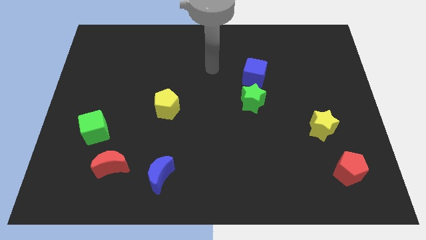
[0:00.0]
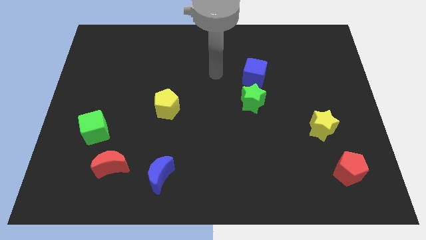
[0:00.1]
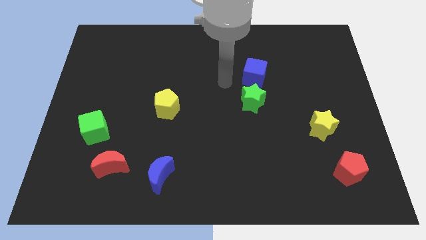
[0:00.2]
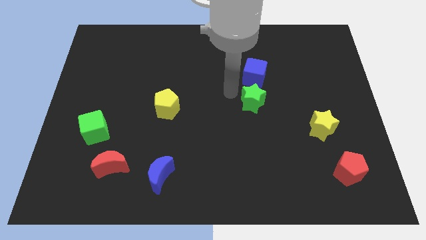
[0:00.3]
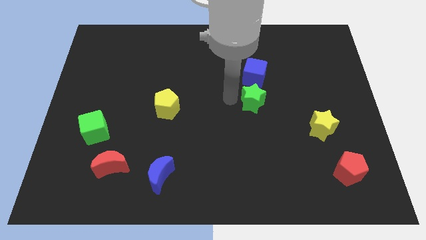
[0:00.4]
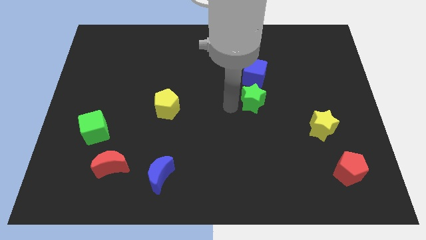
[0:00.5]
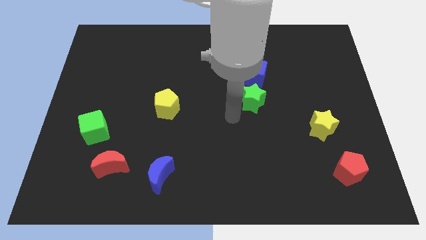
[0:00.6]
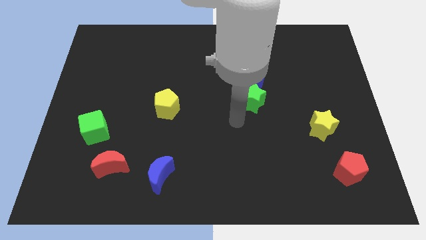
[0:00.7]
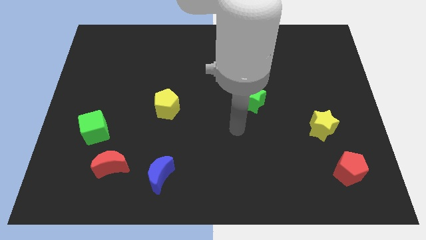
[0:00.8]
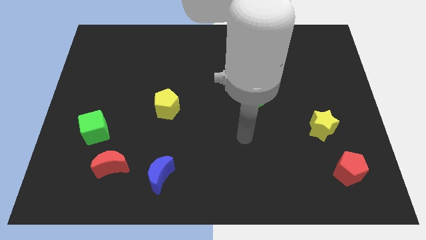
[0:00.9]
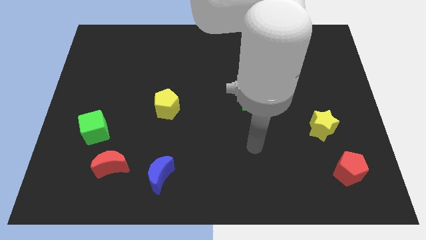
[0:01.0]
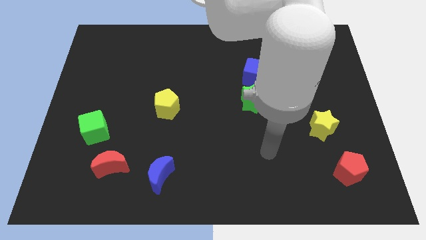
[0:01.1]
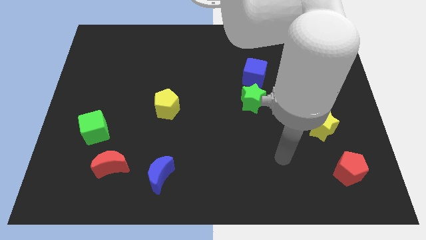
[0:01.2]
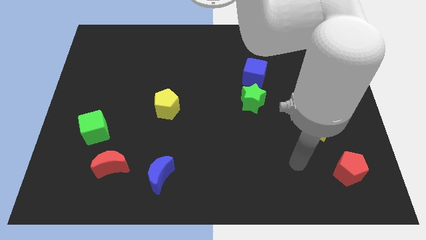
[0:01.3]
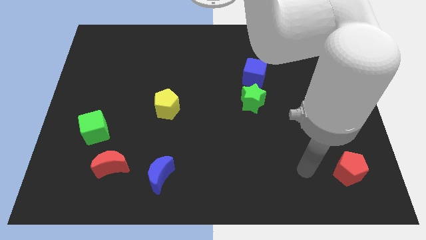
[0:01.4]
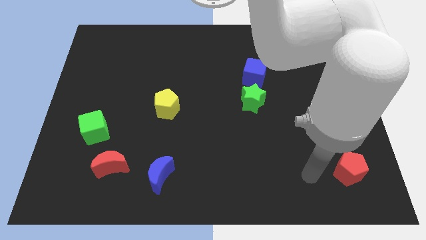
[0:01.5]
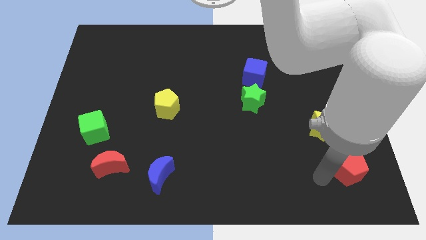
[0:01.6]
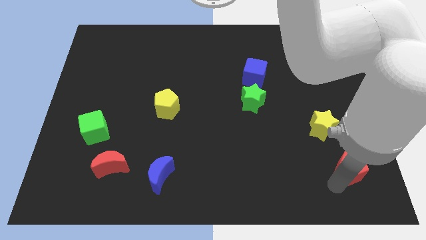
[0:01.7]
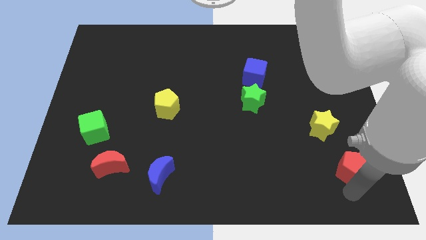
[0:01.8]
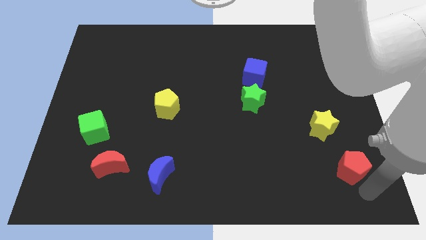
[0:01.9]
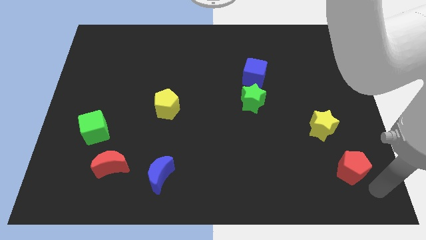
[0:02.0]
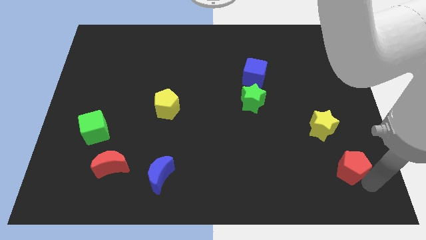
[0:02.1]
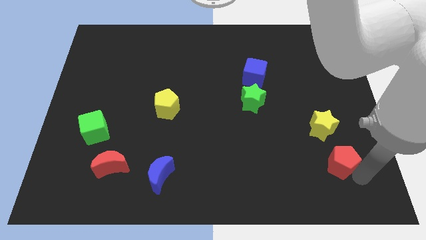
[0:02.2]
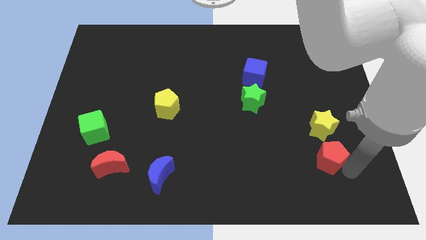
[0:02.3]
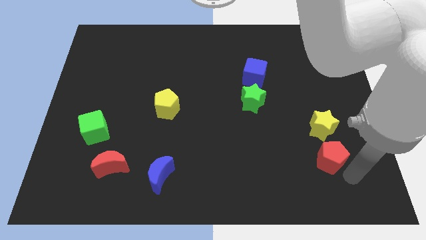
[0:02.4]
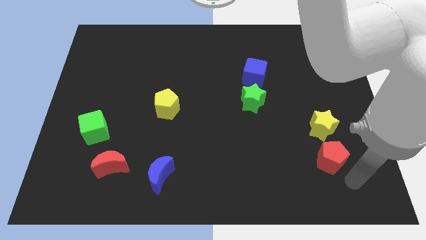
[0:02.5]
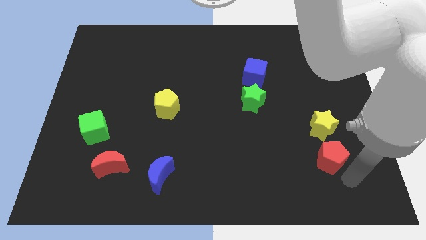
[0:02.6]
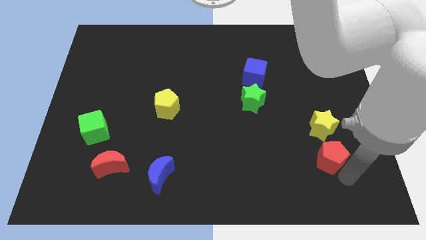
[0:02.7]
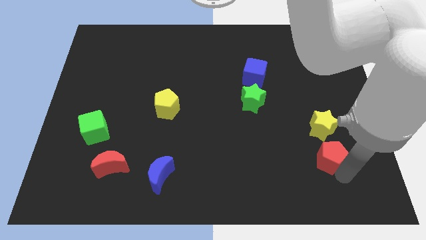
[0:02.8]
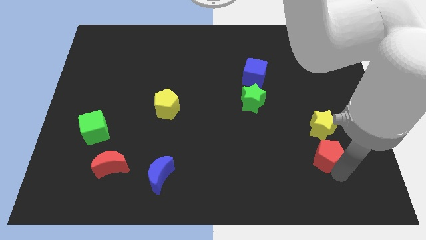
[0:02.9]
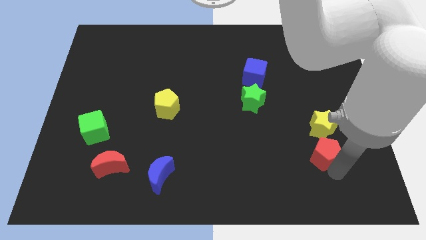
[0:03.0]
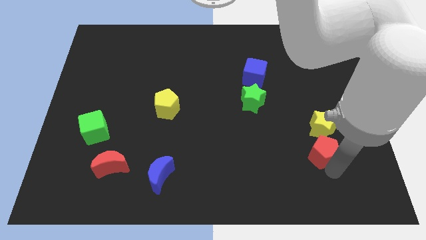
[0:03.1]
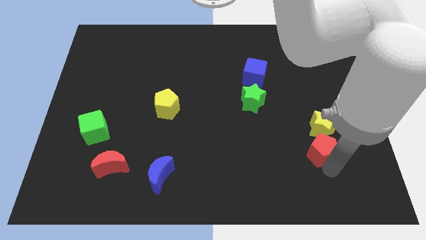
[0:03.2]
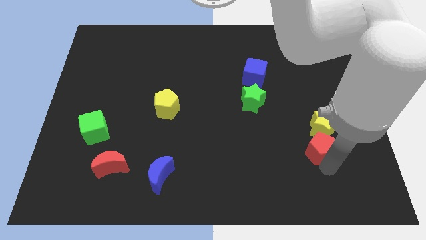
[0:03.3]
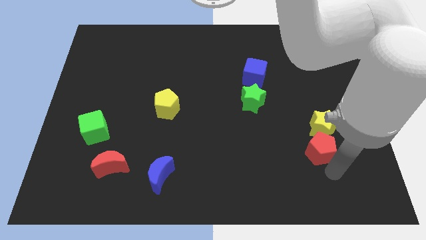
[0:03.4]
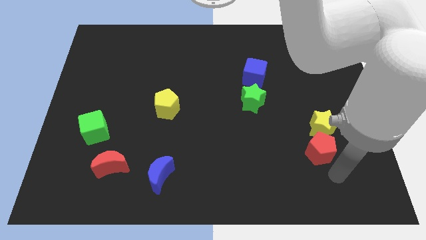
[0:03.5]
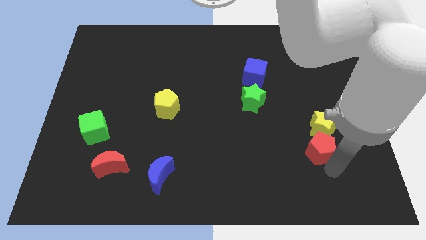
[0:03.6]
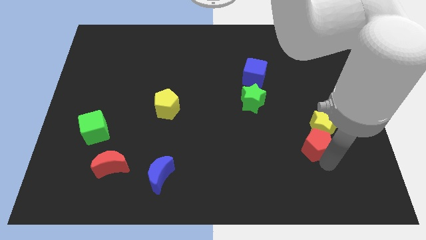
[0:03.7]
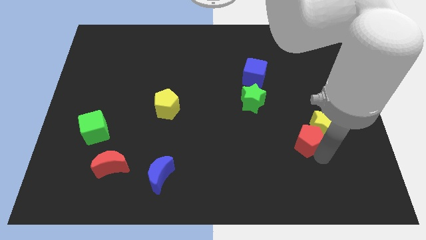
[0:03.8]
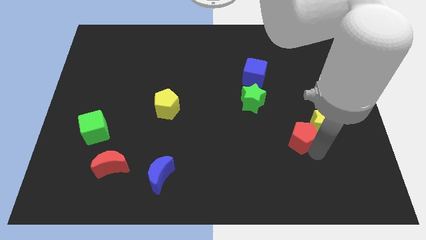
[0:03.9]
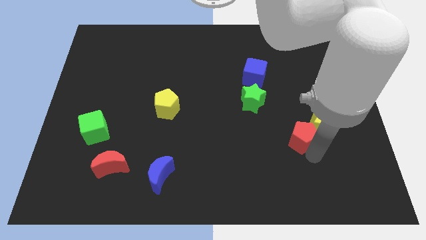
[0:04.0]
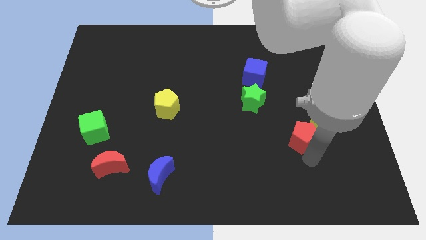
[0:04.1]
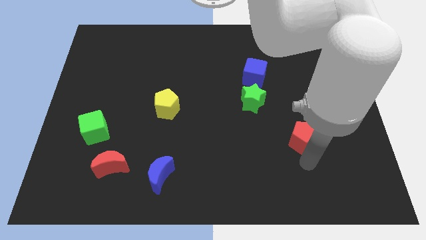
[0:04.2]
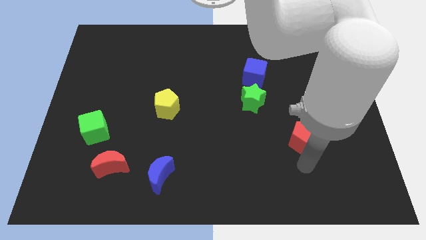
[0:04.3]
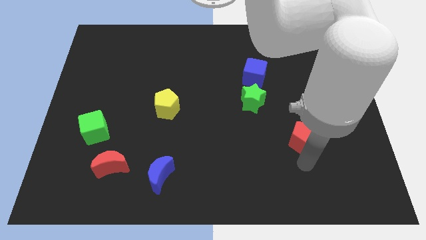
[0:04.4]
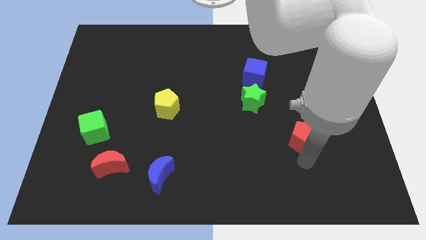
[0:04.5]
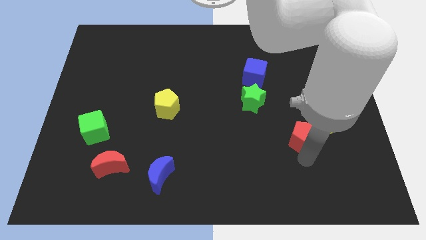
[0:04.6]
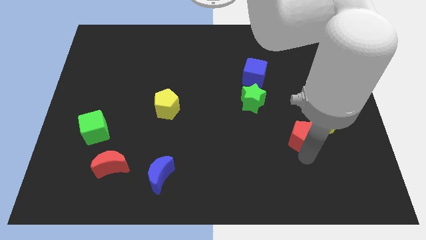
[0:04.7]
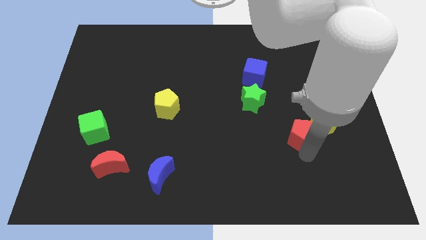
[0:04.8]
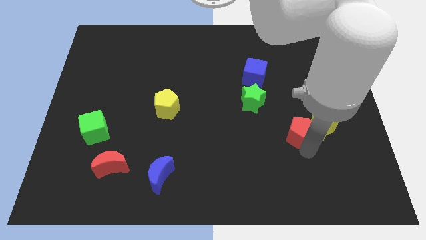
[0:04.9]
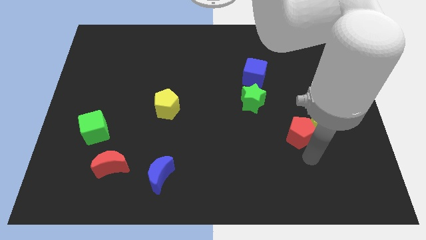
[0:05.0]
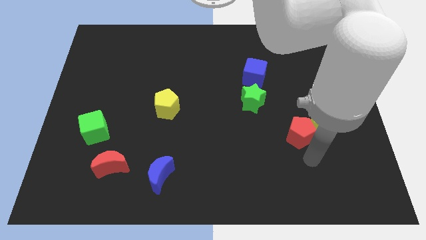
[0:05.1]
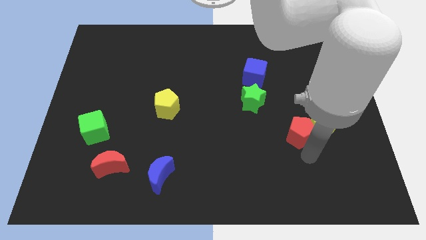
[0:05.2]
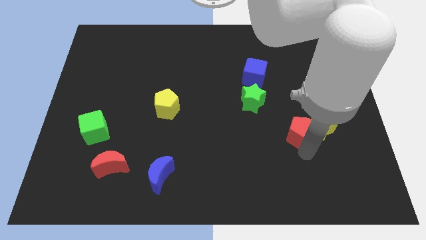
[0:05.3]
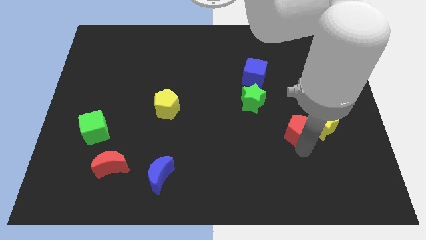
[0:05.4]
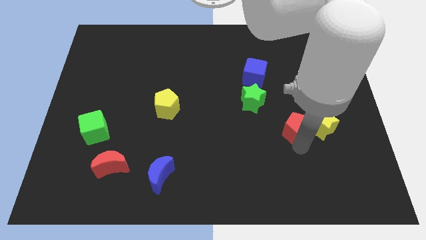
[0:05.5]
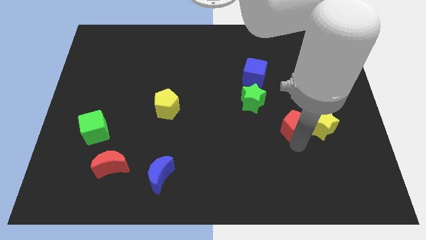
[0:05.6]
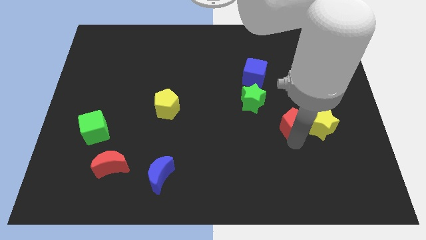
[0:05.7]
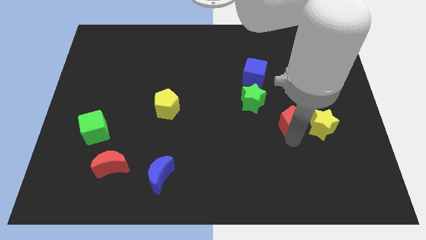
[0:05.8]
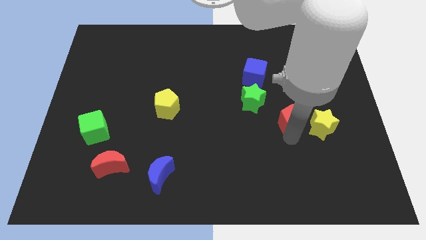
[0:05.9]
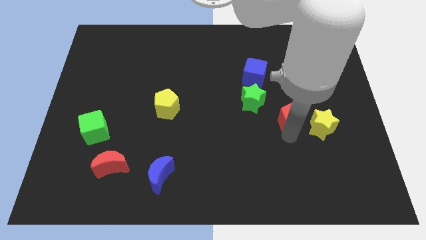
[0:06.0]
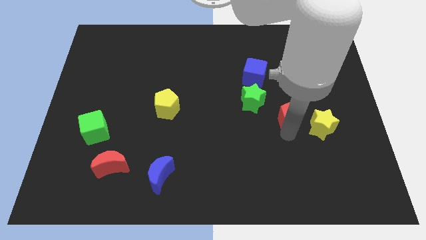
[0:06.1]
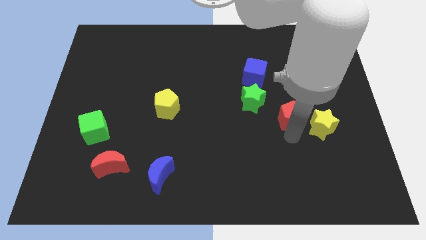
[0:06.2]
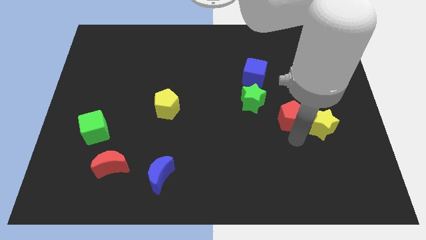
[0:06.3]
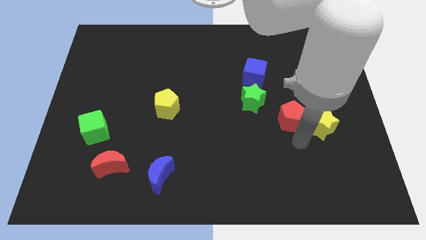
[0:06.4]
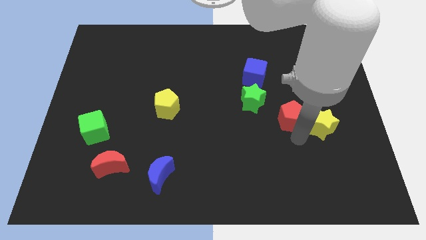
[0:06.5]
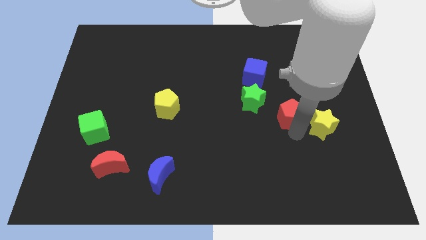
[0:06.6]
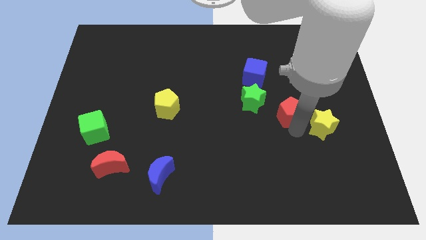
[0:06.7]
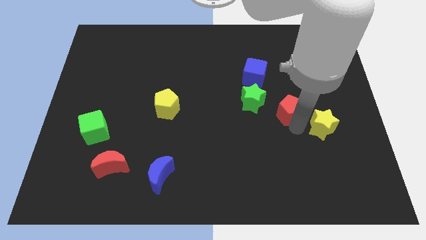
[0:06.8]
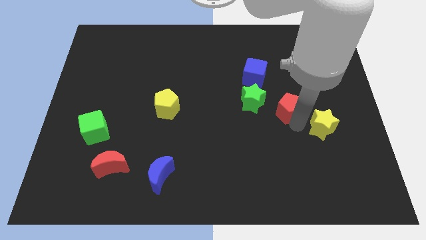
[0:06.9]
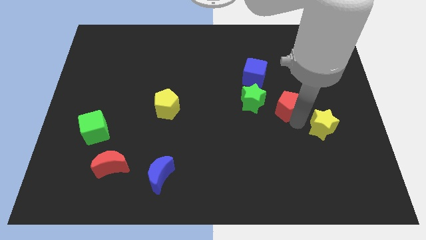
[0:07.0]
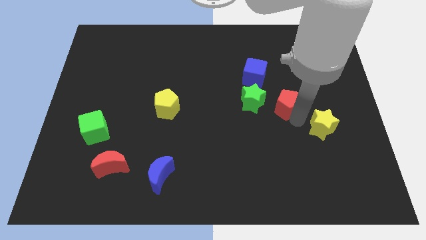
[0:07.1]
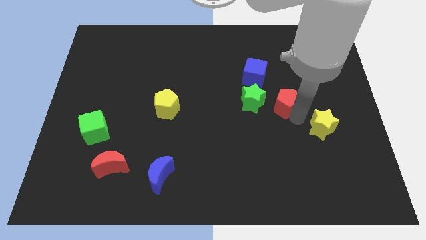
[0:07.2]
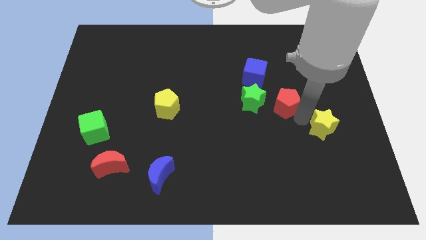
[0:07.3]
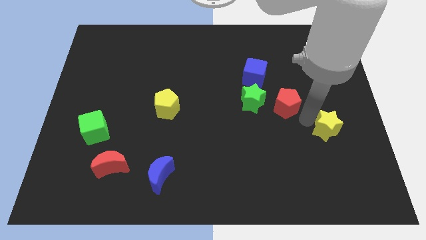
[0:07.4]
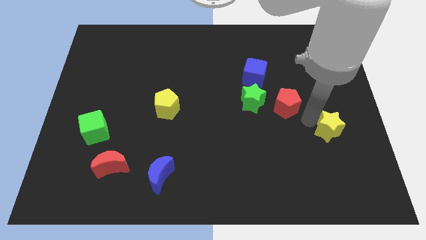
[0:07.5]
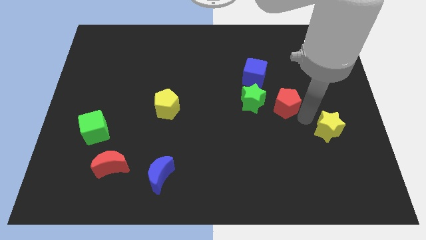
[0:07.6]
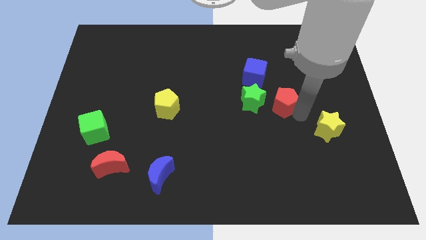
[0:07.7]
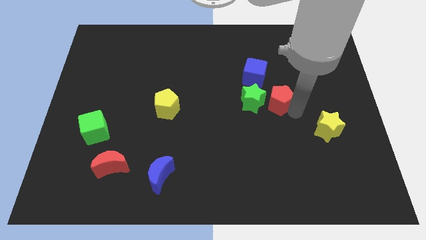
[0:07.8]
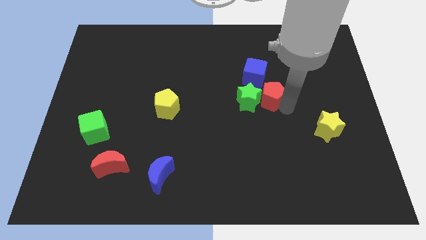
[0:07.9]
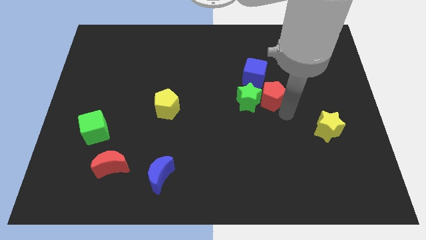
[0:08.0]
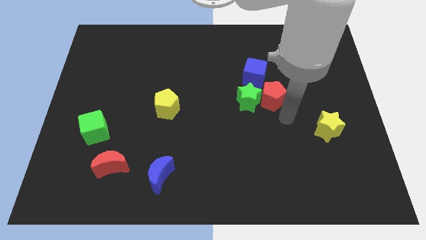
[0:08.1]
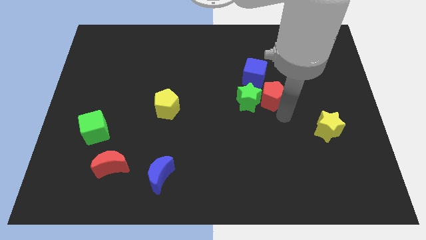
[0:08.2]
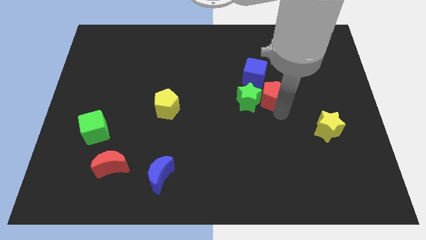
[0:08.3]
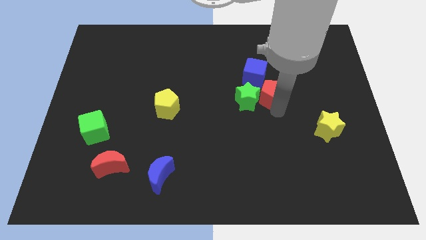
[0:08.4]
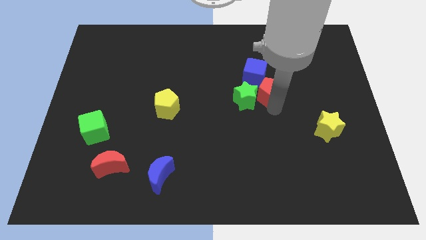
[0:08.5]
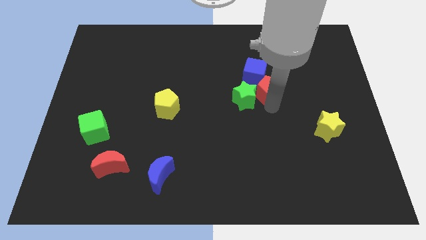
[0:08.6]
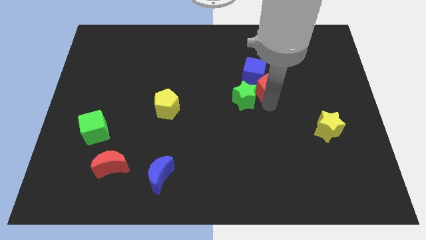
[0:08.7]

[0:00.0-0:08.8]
move the red pentagon next to the blue cube
